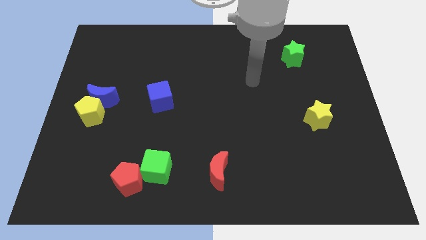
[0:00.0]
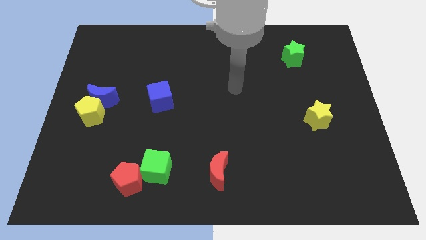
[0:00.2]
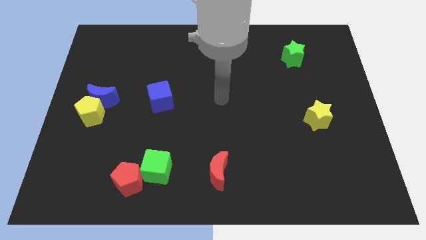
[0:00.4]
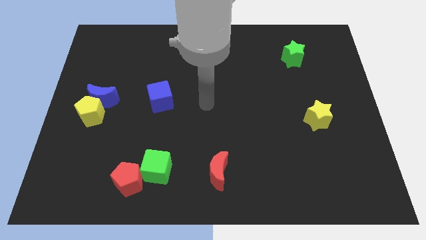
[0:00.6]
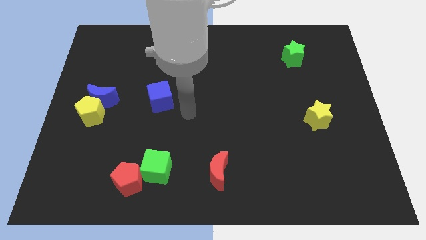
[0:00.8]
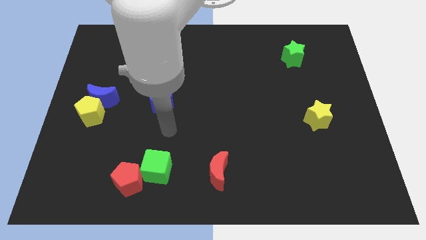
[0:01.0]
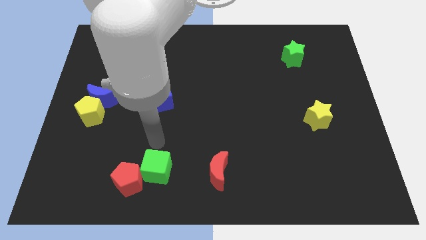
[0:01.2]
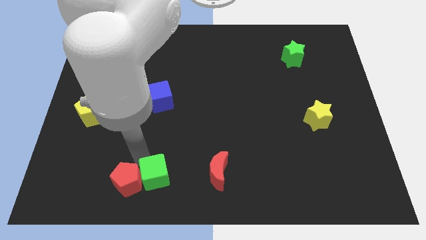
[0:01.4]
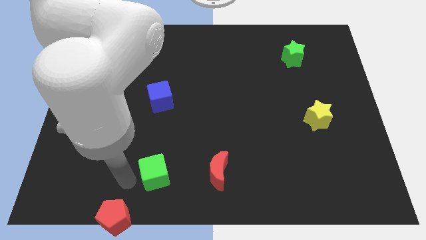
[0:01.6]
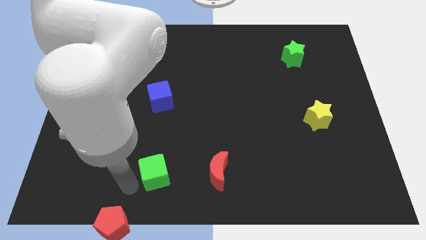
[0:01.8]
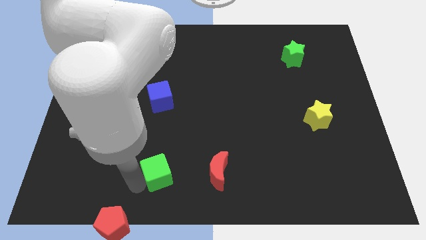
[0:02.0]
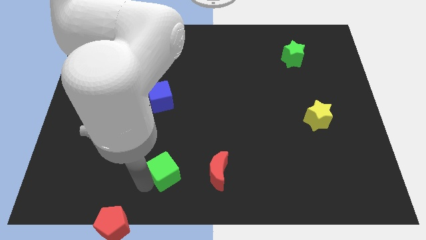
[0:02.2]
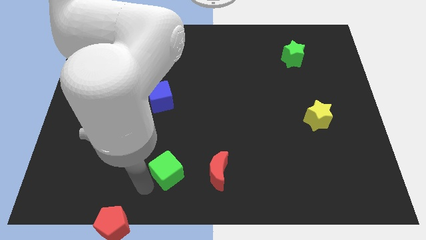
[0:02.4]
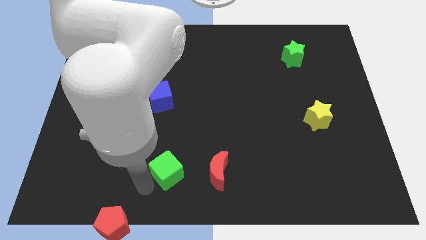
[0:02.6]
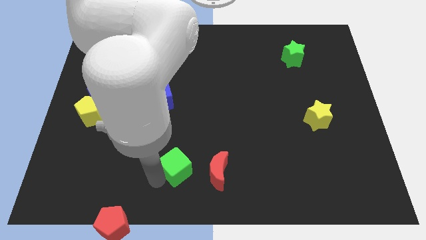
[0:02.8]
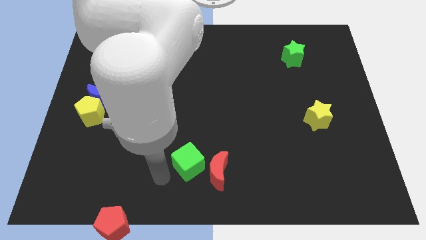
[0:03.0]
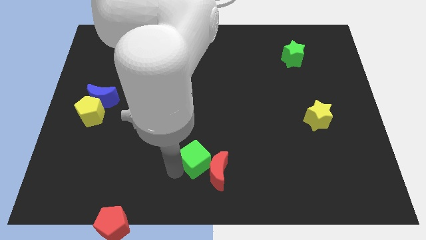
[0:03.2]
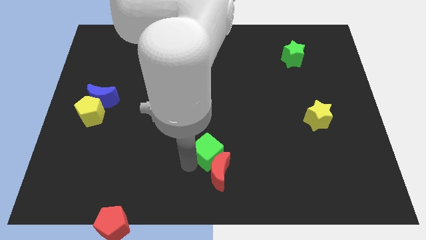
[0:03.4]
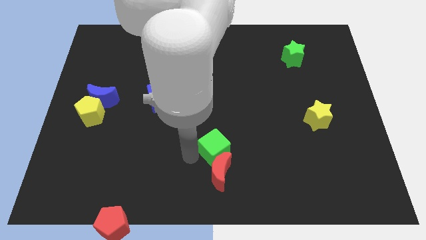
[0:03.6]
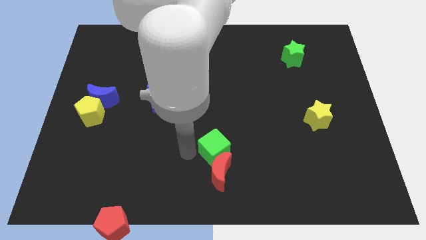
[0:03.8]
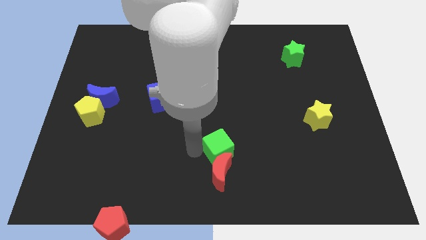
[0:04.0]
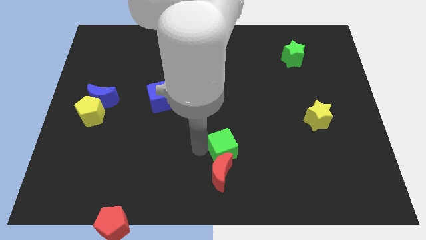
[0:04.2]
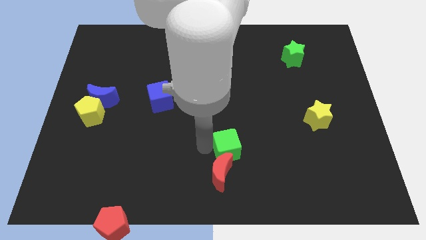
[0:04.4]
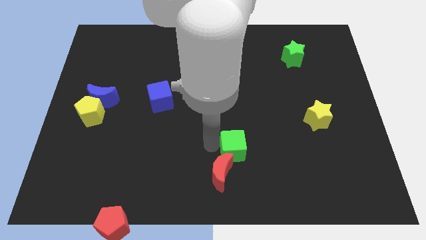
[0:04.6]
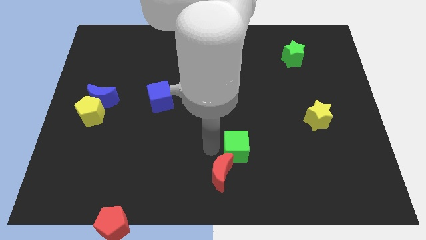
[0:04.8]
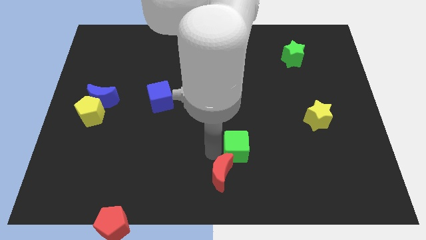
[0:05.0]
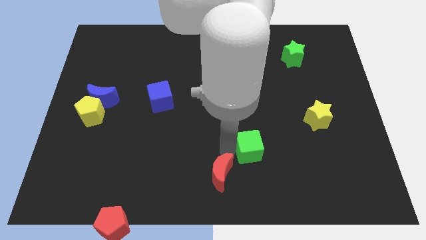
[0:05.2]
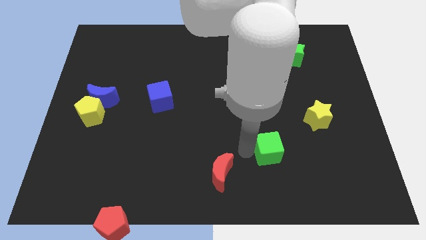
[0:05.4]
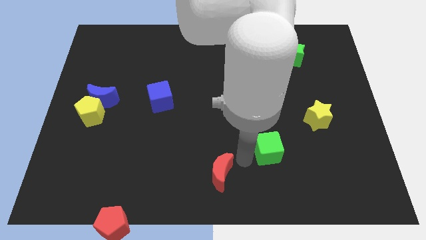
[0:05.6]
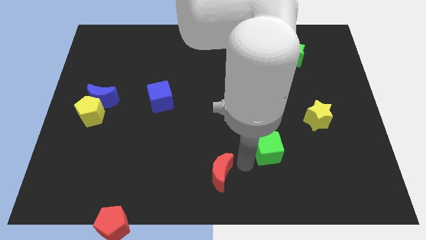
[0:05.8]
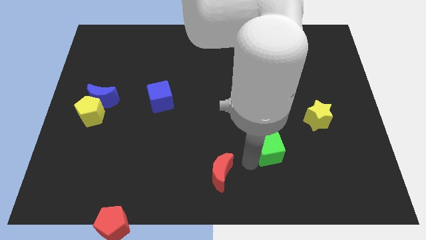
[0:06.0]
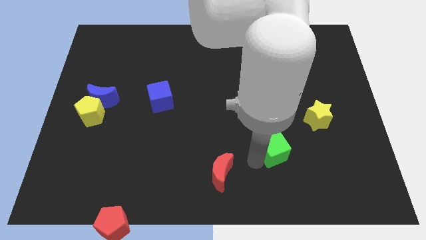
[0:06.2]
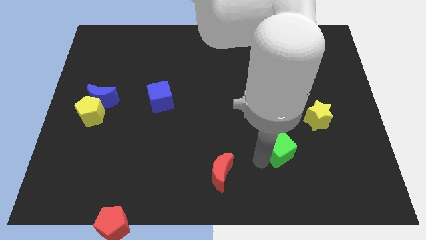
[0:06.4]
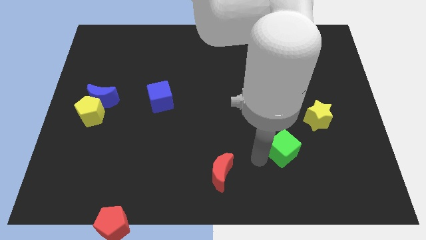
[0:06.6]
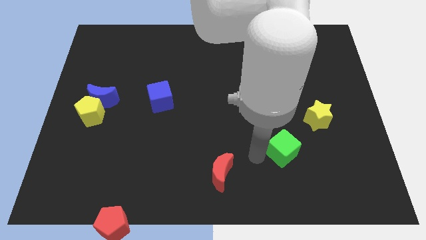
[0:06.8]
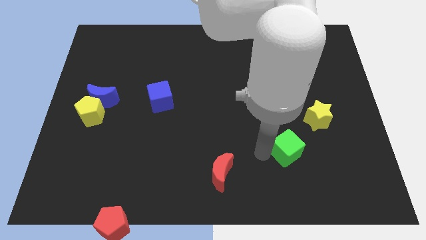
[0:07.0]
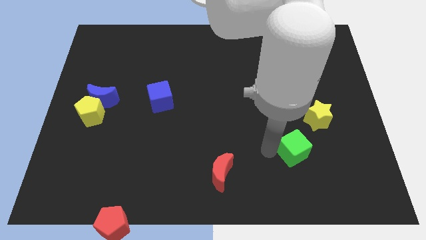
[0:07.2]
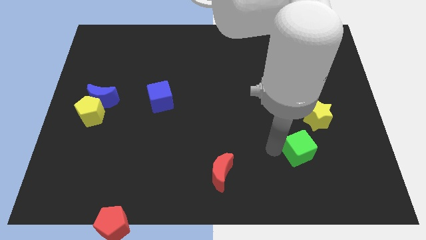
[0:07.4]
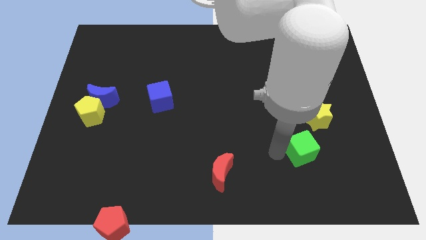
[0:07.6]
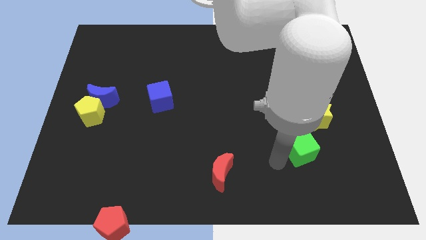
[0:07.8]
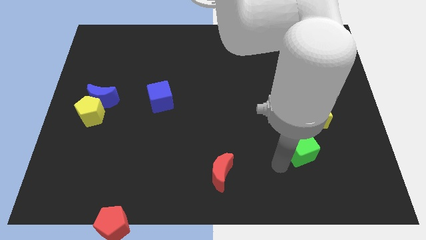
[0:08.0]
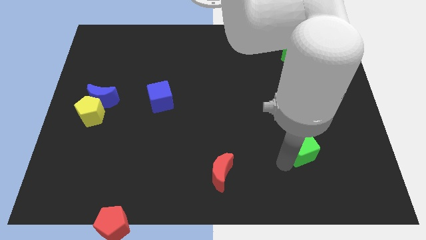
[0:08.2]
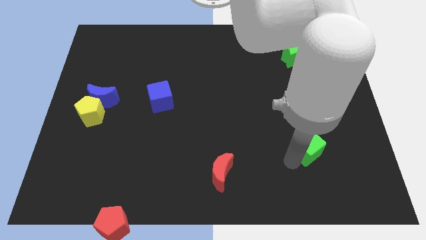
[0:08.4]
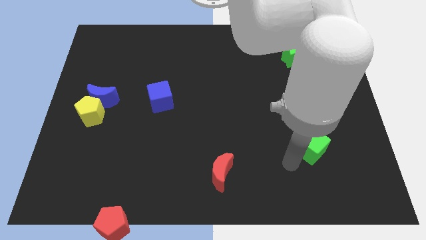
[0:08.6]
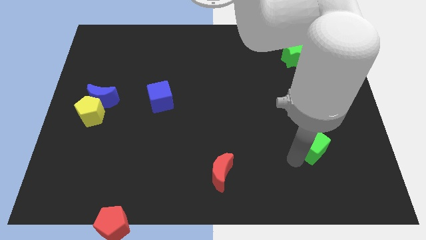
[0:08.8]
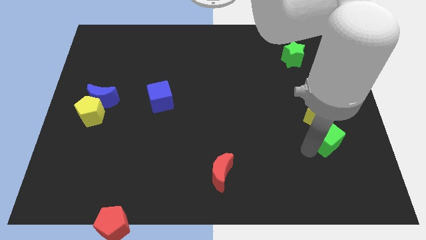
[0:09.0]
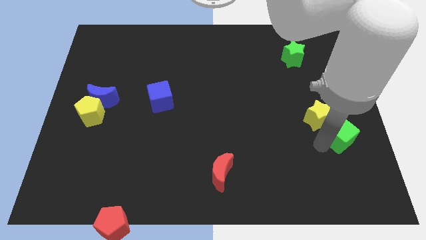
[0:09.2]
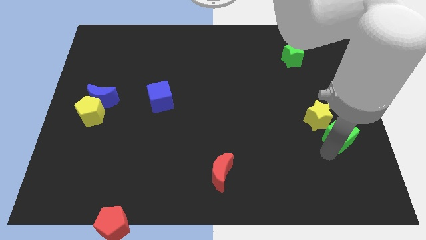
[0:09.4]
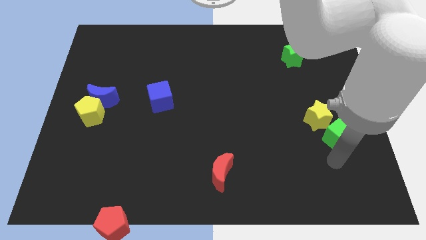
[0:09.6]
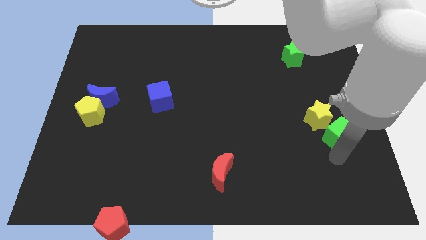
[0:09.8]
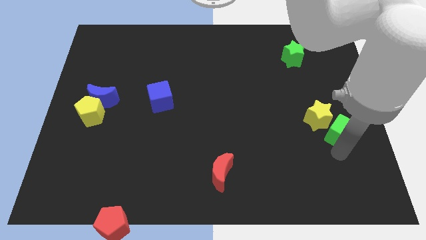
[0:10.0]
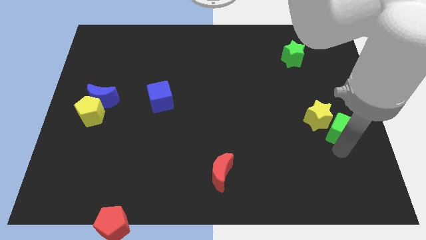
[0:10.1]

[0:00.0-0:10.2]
slide the green cube to the right side

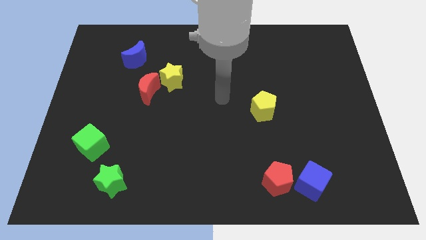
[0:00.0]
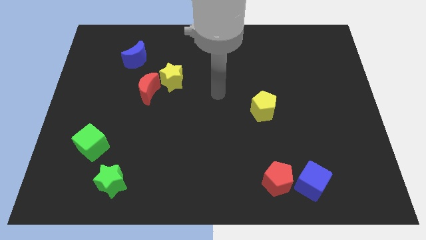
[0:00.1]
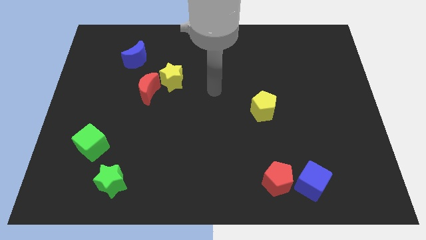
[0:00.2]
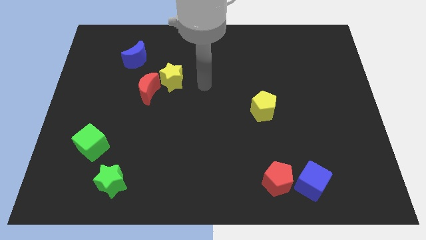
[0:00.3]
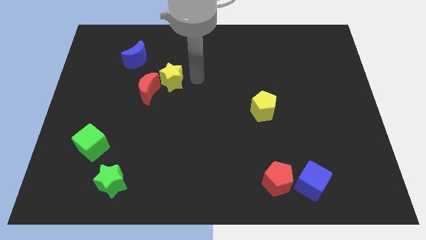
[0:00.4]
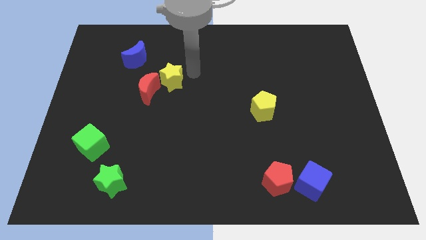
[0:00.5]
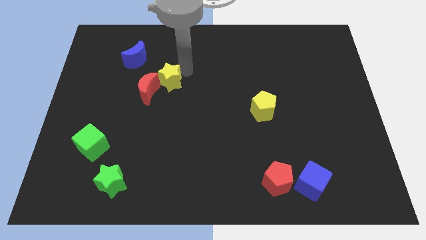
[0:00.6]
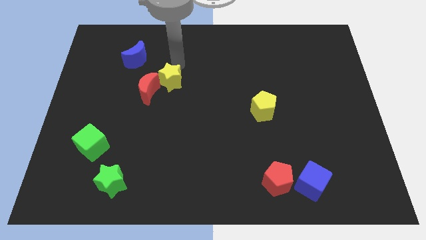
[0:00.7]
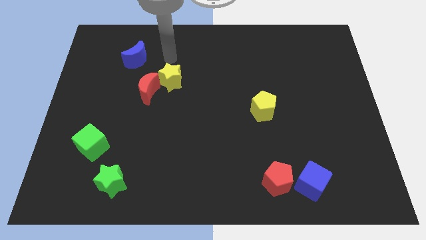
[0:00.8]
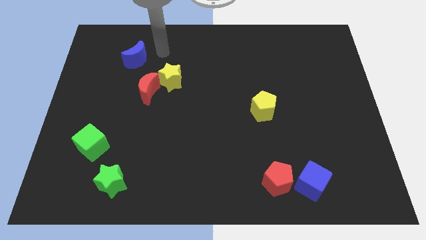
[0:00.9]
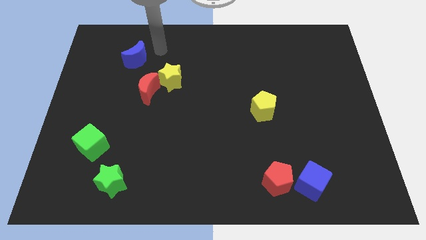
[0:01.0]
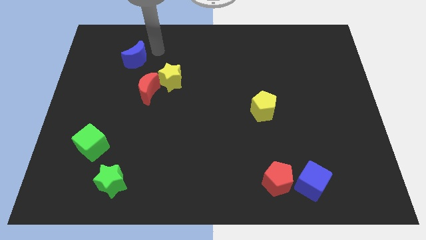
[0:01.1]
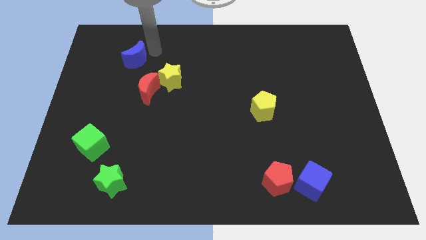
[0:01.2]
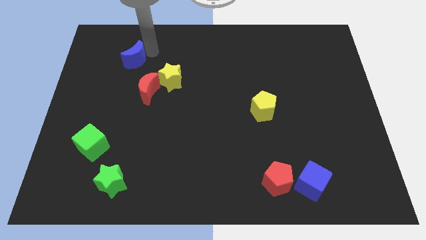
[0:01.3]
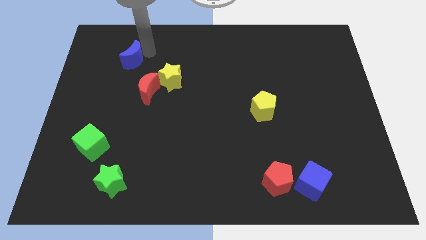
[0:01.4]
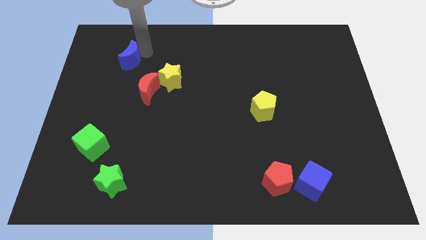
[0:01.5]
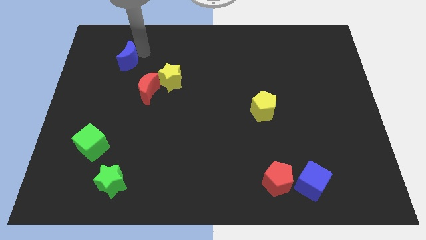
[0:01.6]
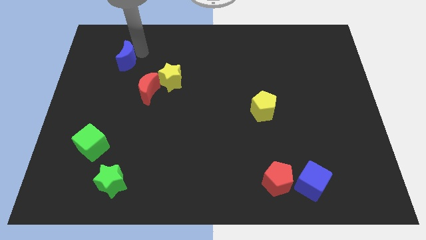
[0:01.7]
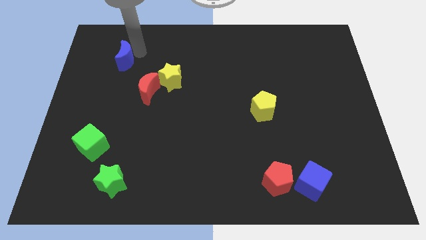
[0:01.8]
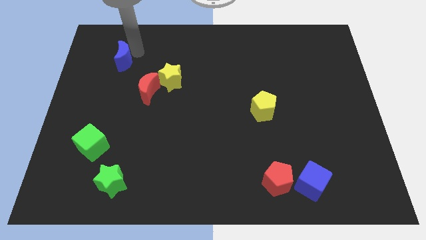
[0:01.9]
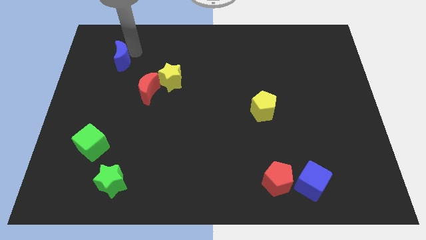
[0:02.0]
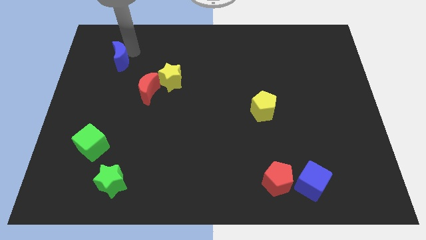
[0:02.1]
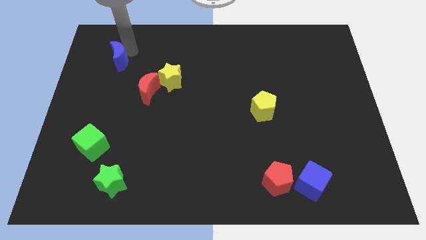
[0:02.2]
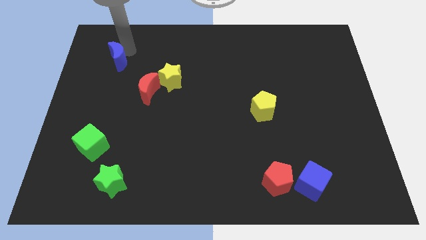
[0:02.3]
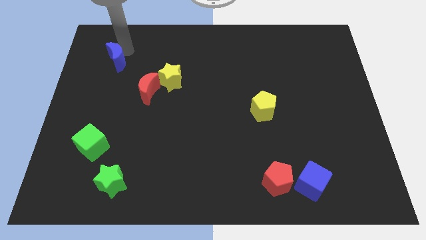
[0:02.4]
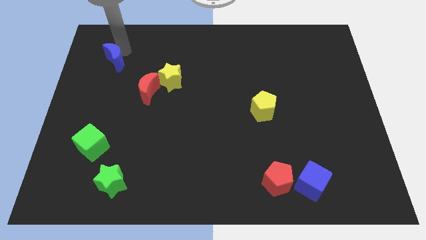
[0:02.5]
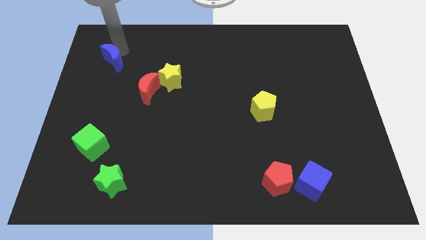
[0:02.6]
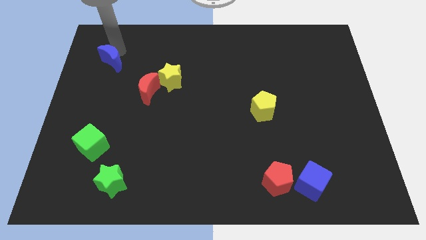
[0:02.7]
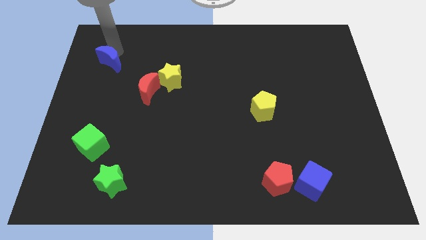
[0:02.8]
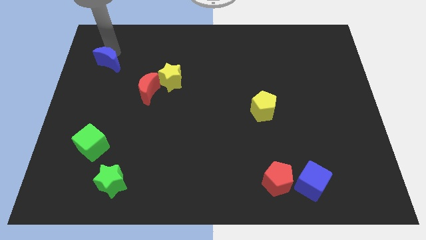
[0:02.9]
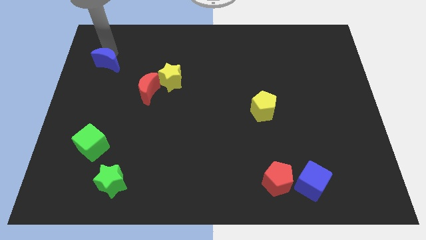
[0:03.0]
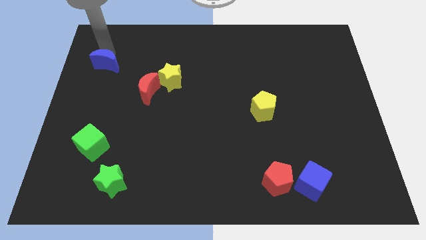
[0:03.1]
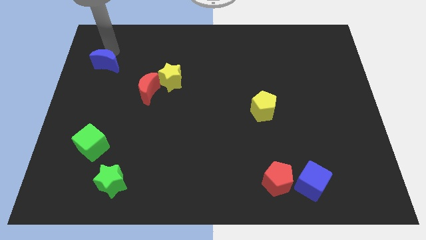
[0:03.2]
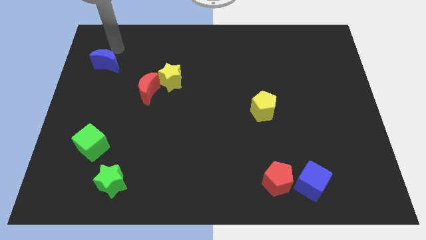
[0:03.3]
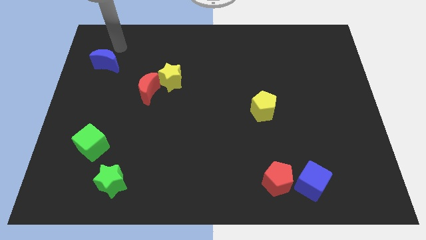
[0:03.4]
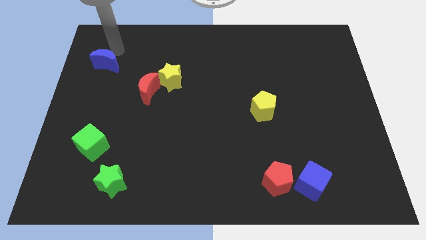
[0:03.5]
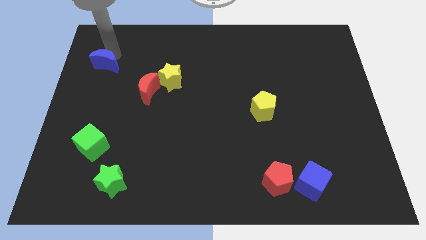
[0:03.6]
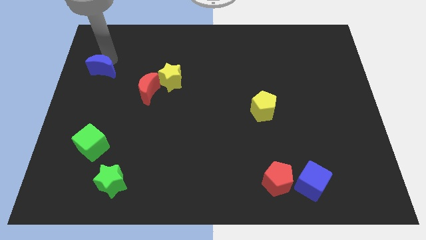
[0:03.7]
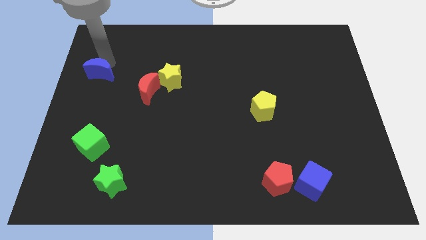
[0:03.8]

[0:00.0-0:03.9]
put the blue moon to the left side
